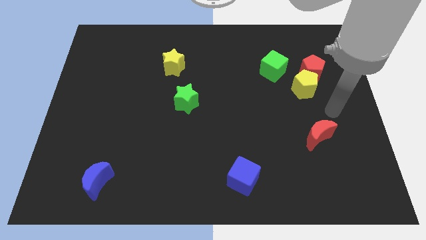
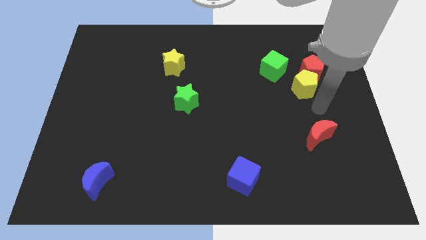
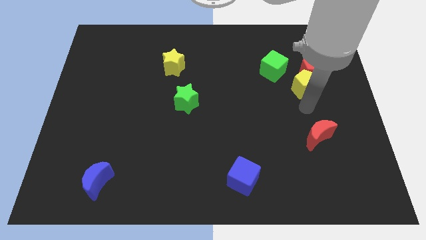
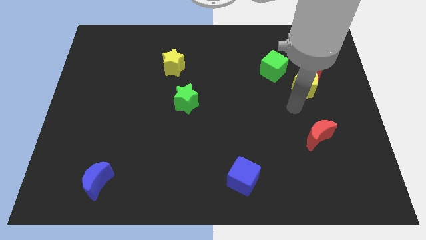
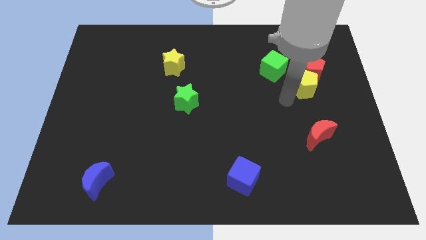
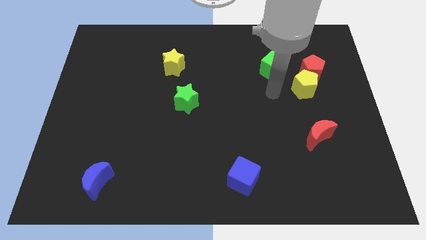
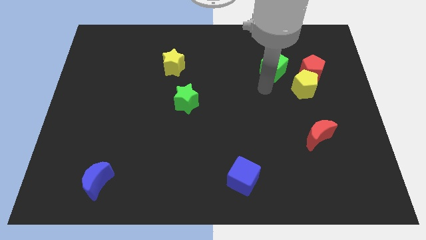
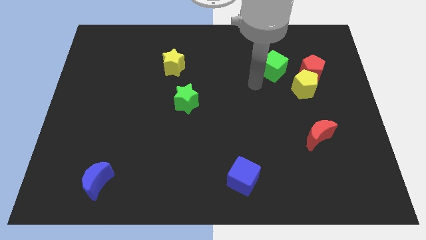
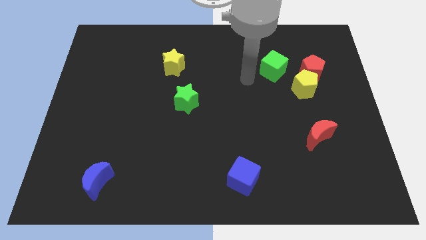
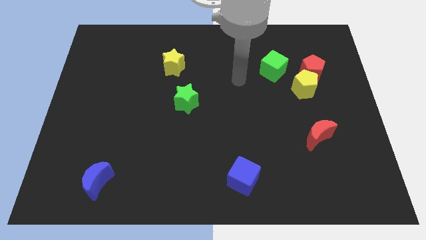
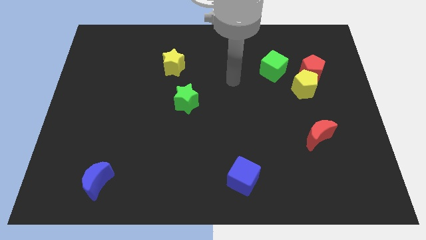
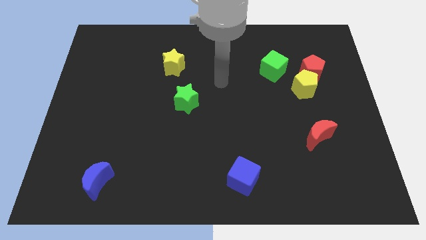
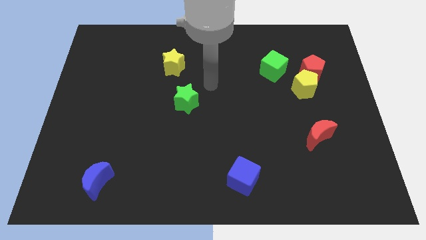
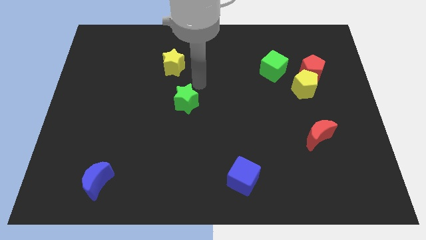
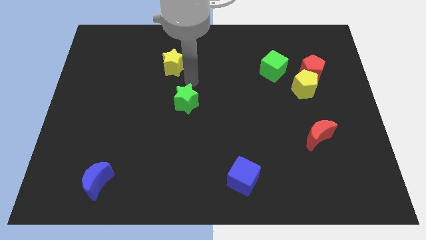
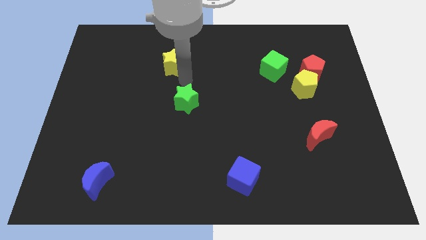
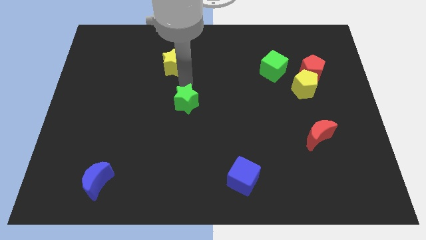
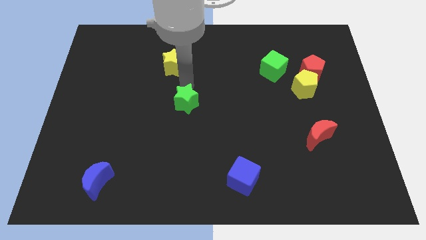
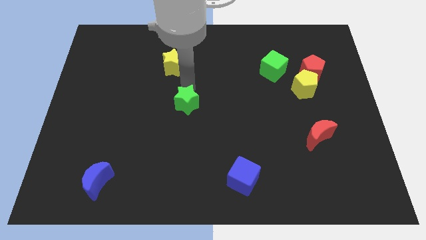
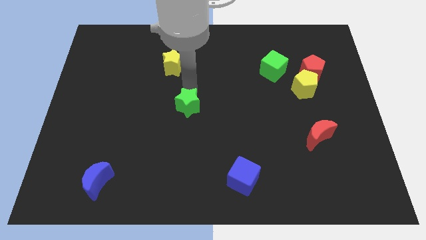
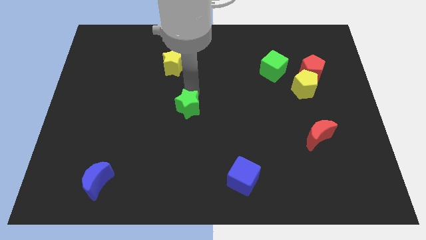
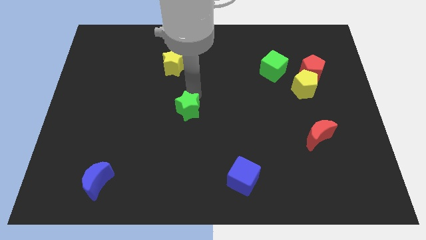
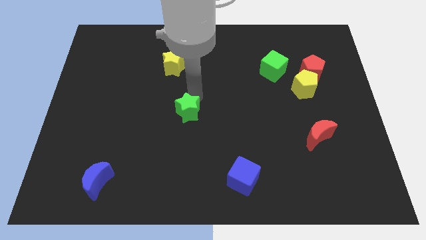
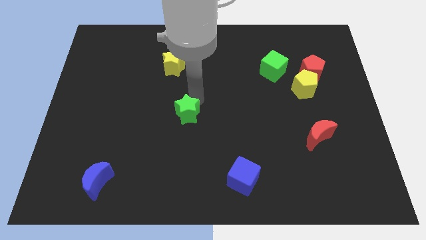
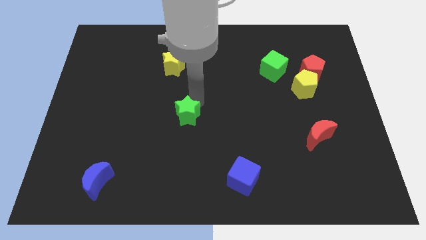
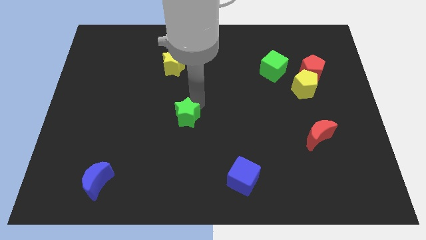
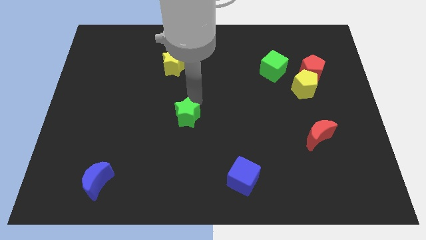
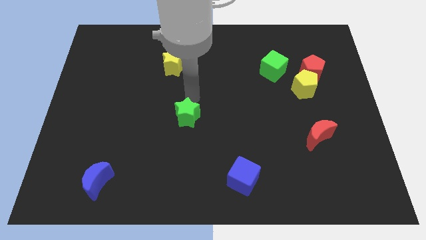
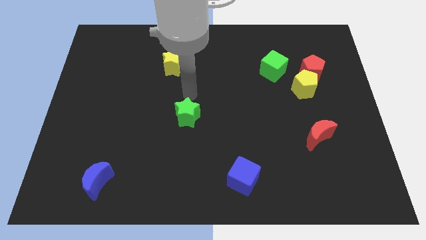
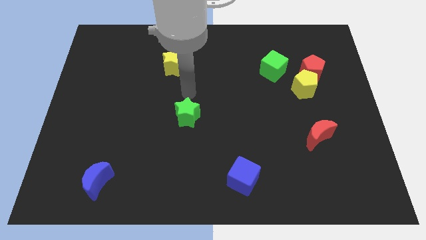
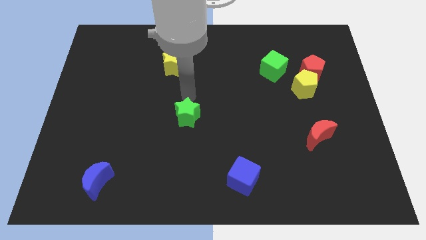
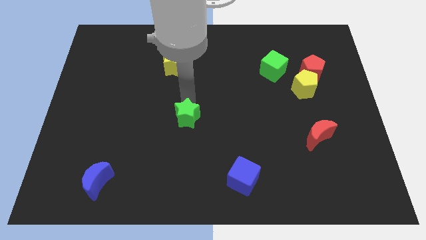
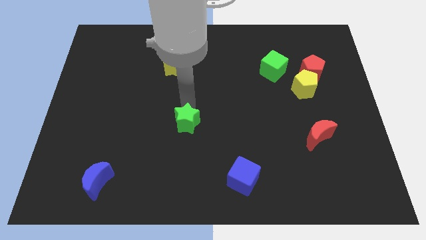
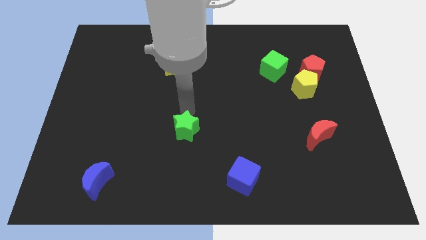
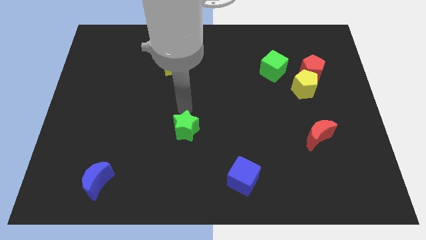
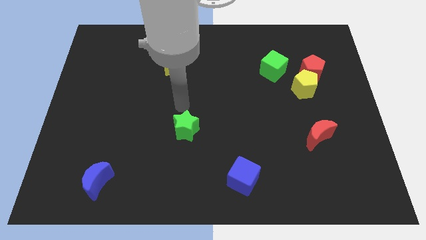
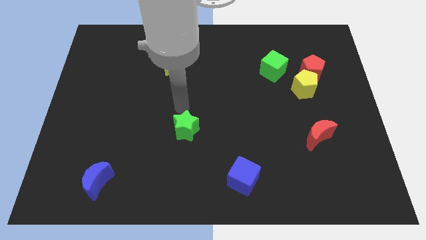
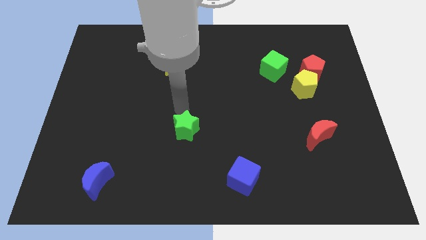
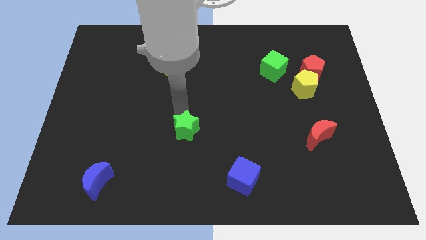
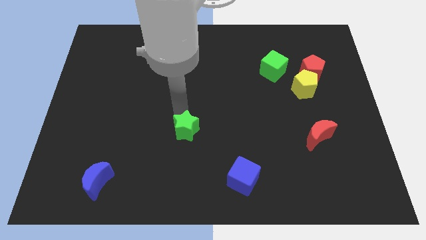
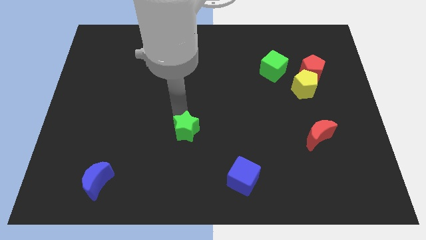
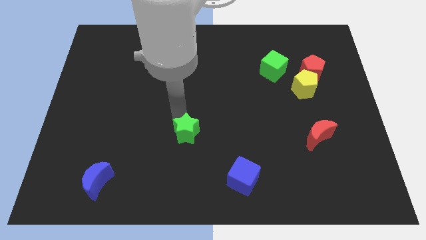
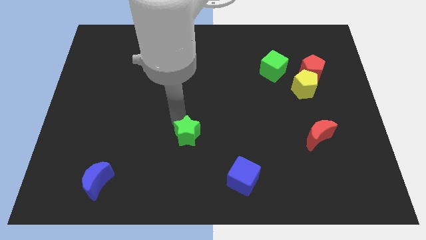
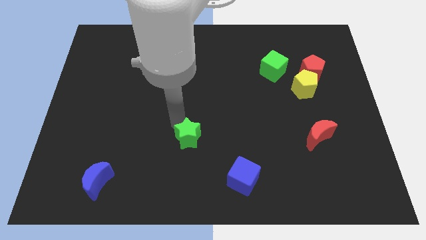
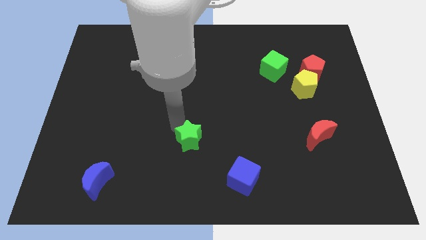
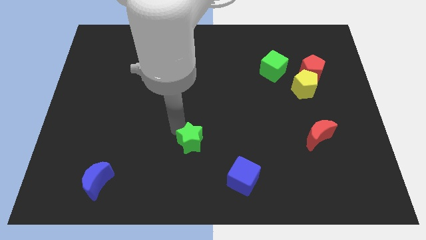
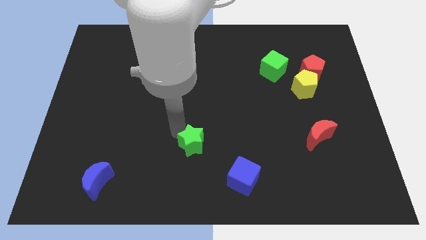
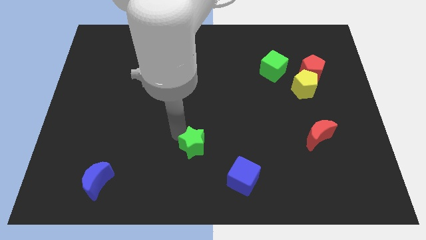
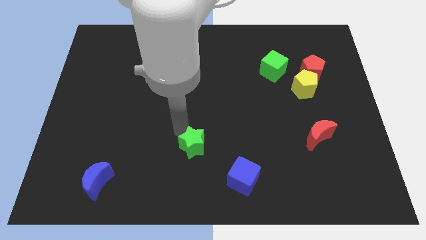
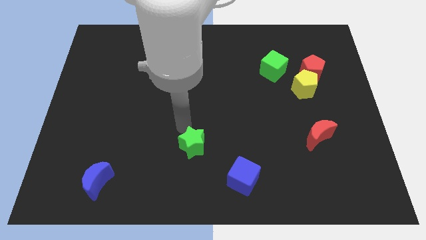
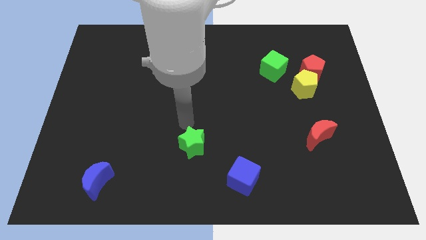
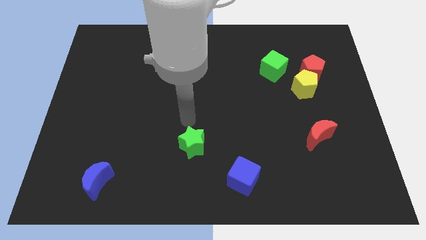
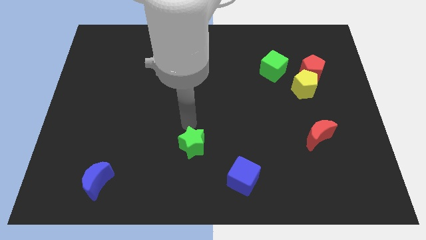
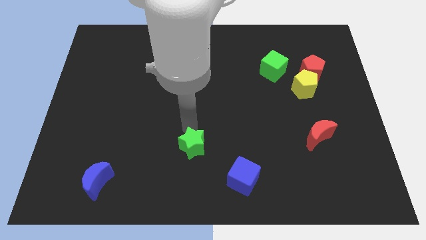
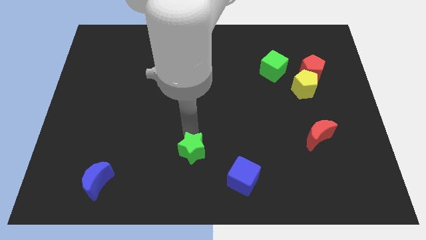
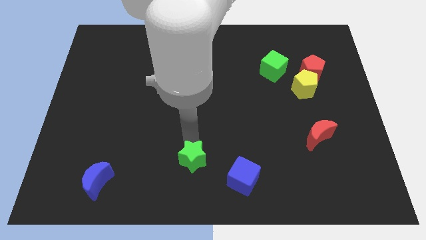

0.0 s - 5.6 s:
put the green star to the bottom side

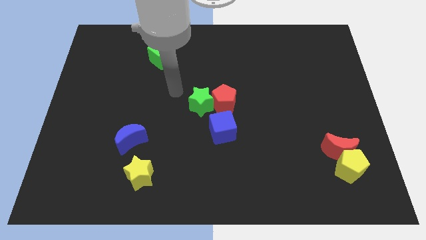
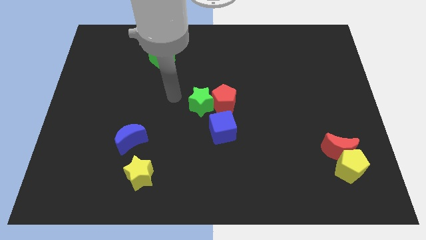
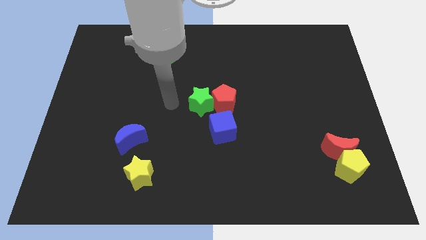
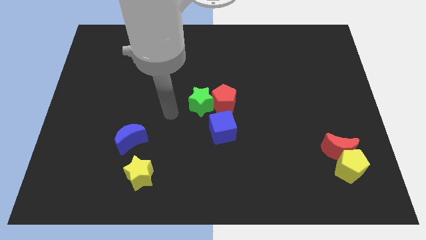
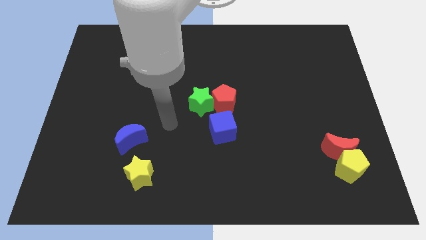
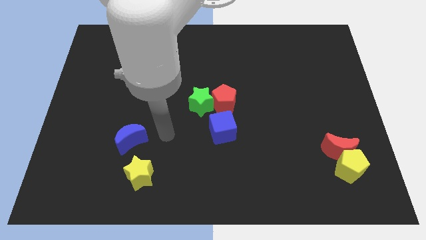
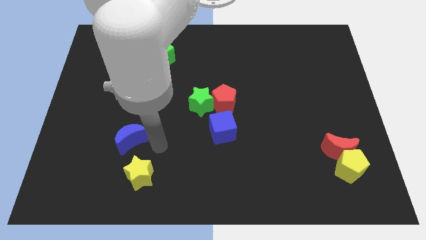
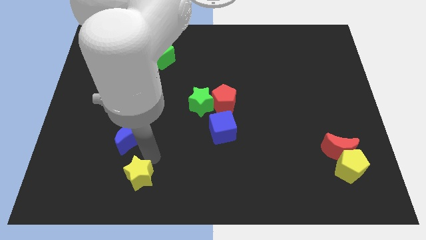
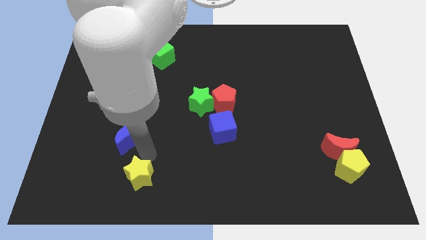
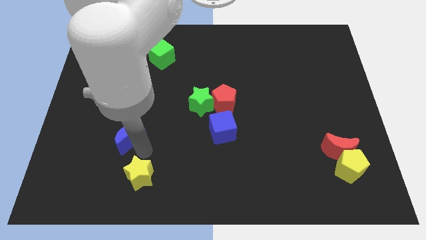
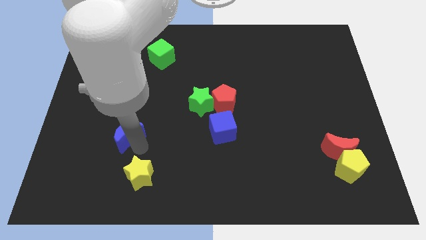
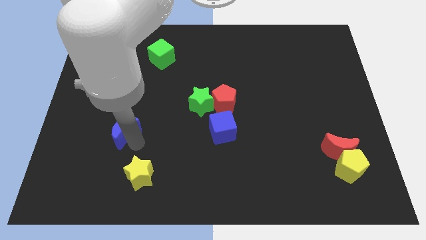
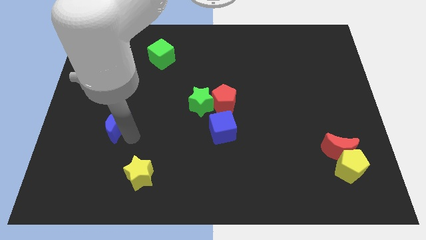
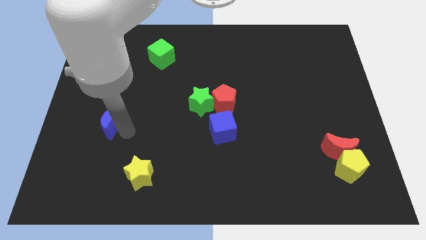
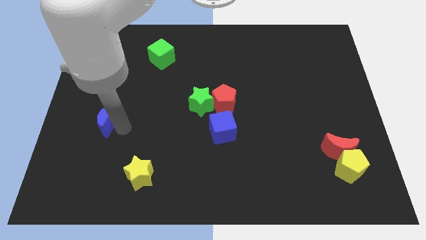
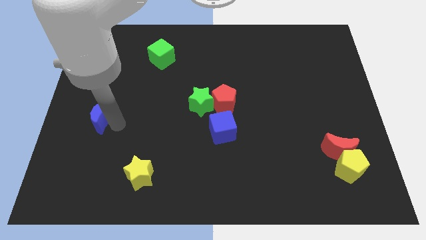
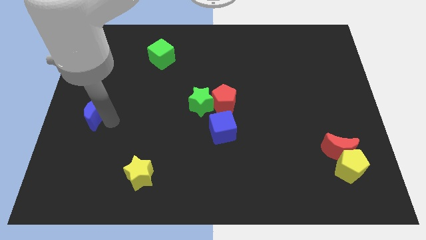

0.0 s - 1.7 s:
put the blue moon to the center left

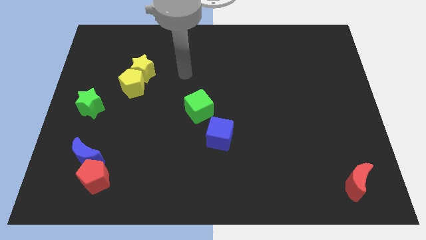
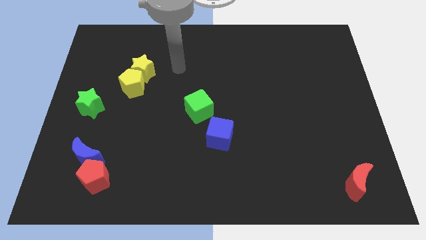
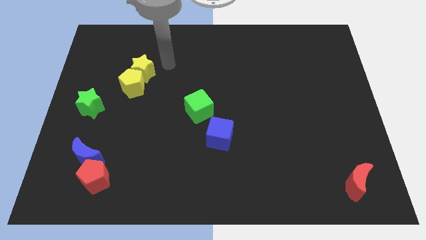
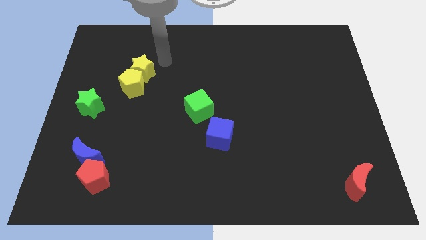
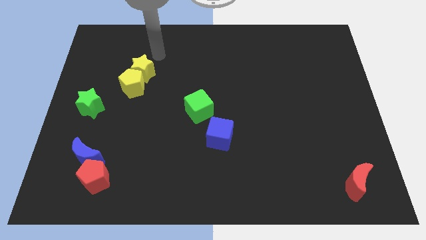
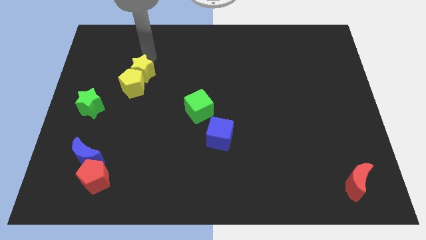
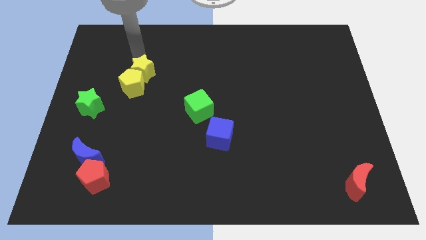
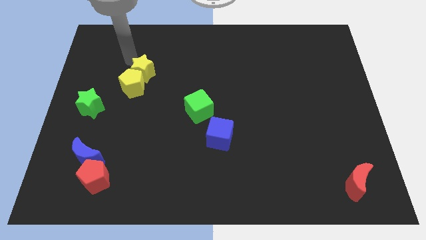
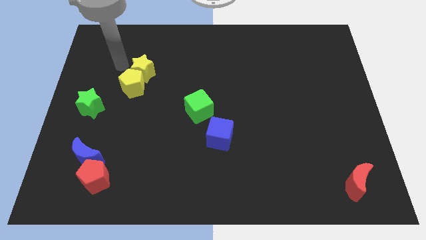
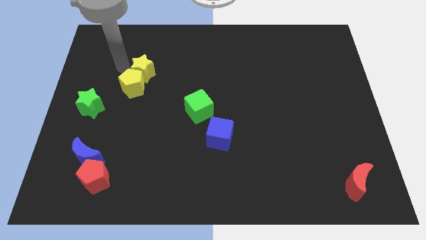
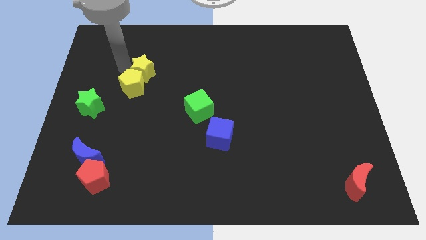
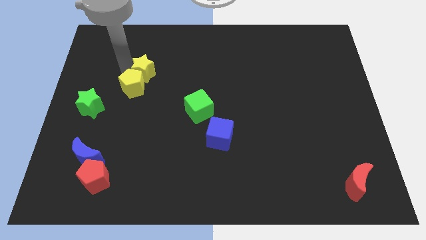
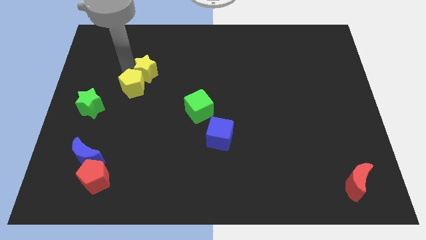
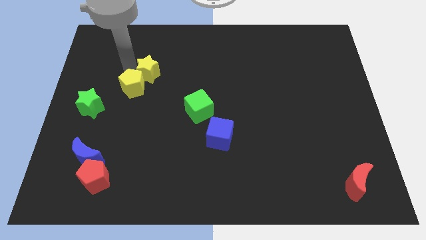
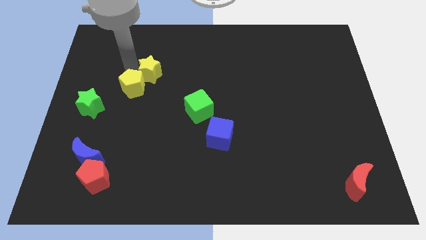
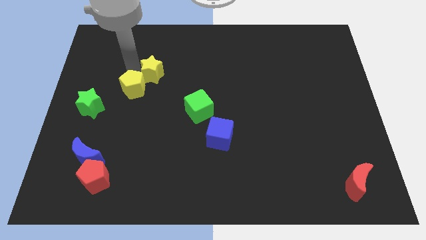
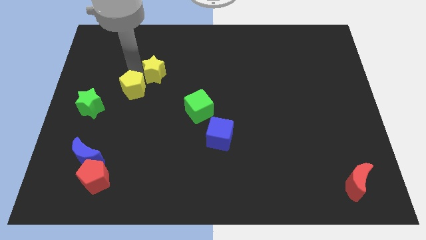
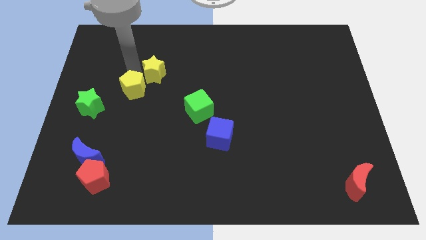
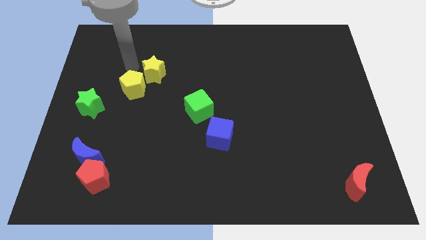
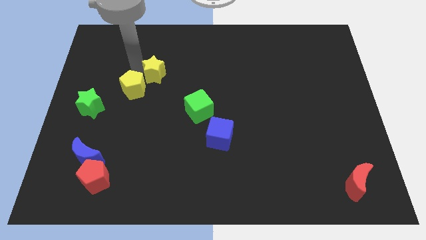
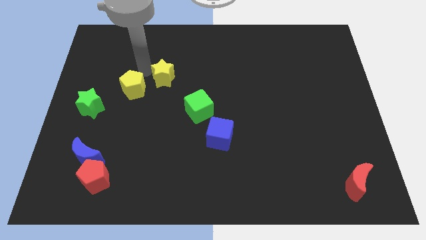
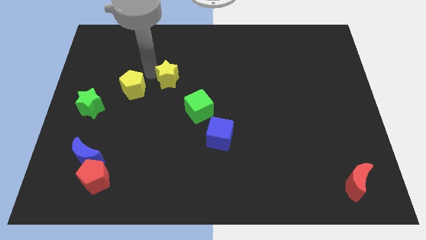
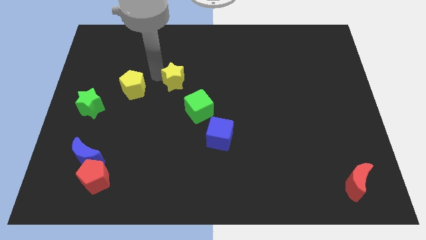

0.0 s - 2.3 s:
push the yellow star to the center of the board
